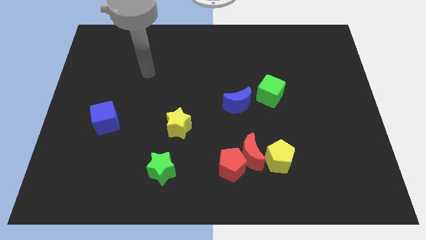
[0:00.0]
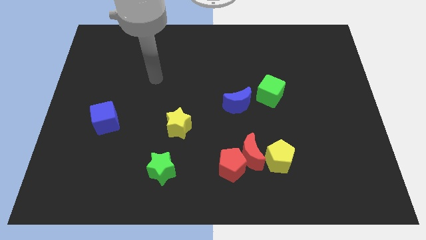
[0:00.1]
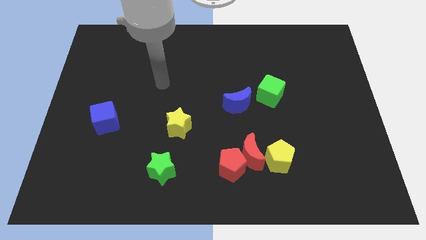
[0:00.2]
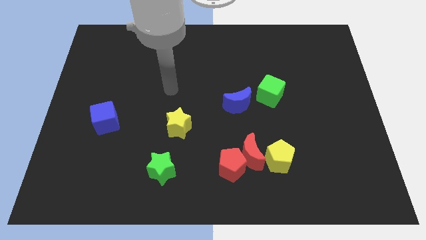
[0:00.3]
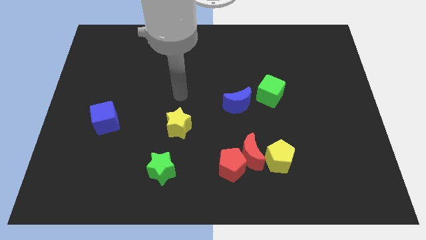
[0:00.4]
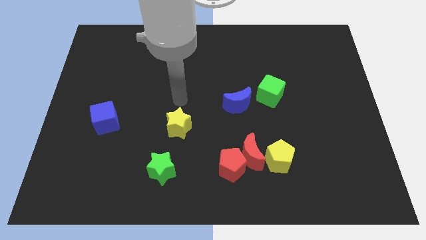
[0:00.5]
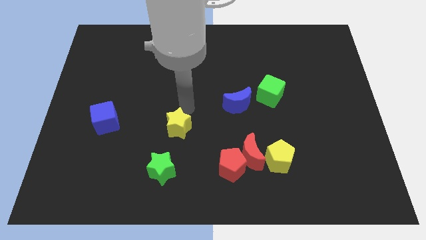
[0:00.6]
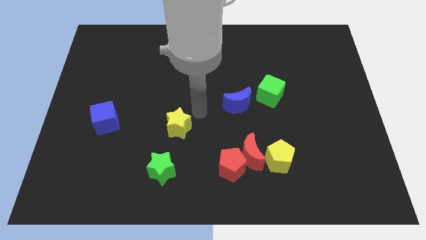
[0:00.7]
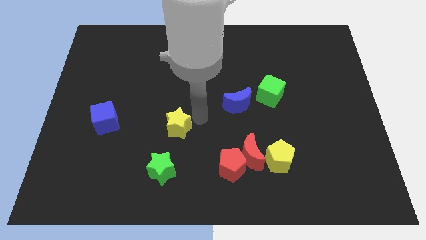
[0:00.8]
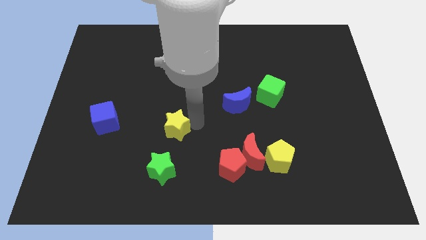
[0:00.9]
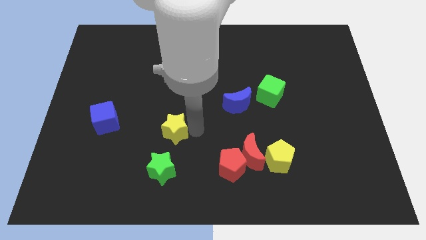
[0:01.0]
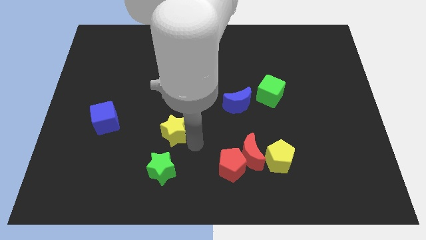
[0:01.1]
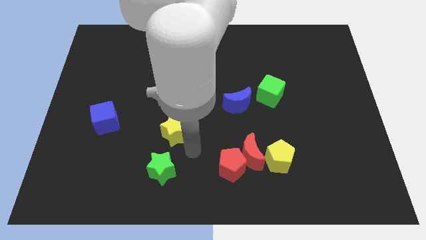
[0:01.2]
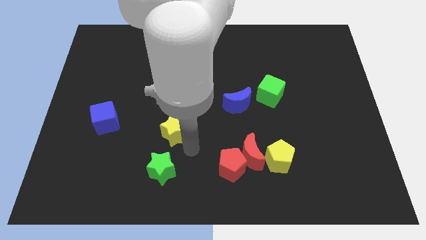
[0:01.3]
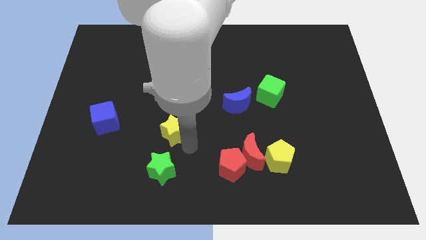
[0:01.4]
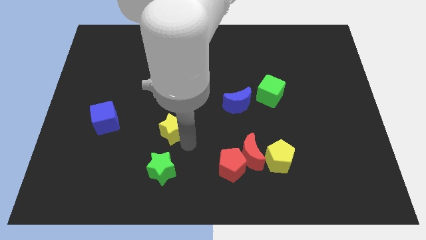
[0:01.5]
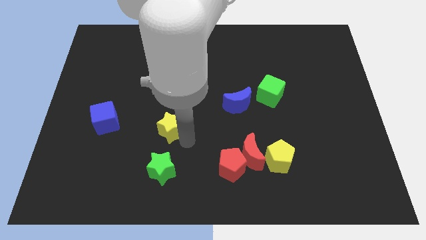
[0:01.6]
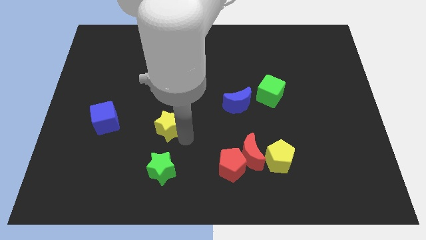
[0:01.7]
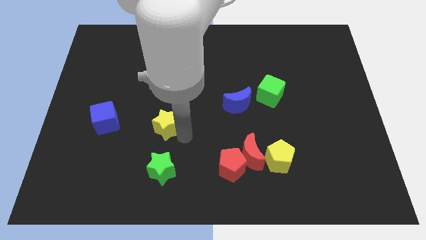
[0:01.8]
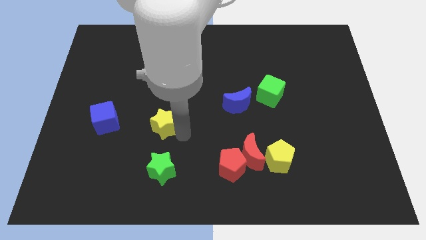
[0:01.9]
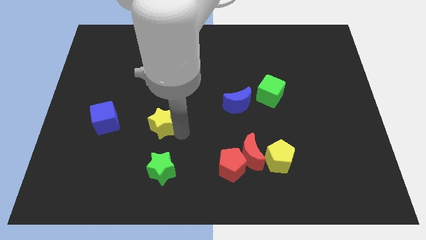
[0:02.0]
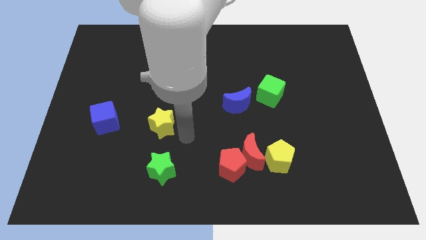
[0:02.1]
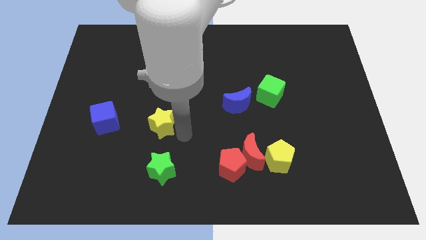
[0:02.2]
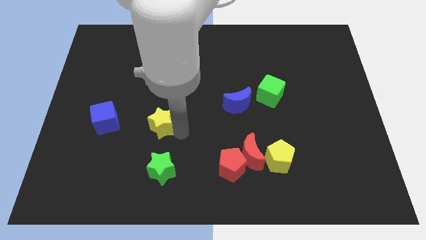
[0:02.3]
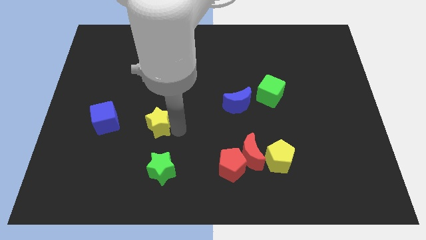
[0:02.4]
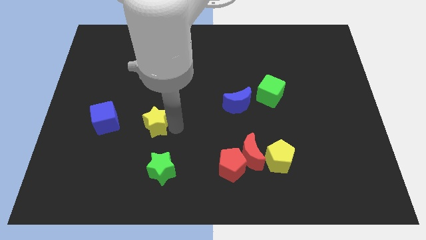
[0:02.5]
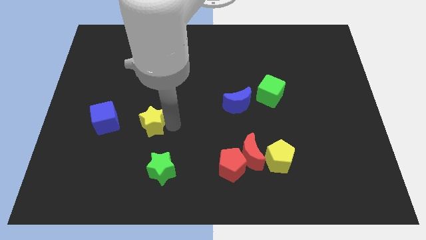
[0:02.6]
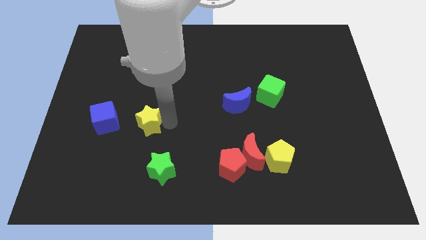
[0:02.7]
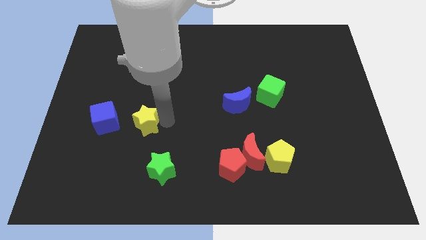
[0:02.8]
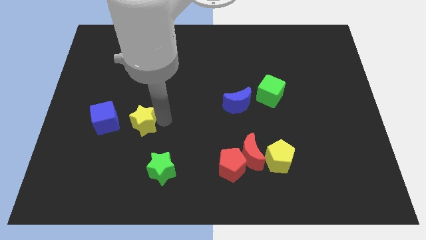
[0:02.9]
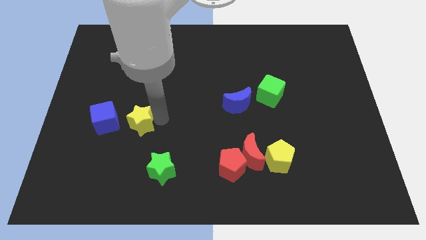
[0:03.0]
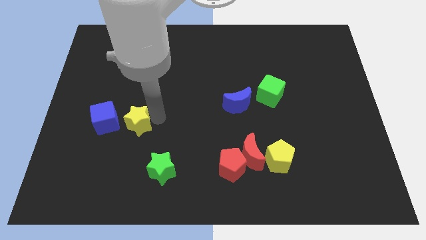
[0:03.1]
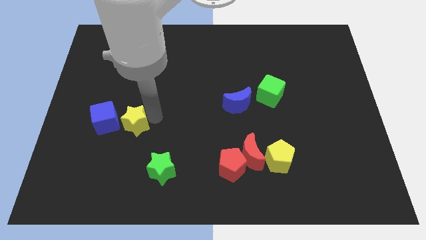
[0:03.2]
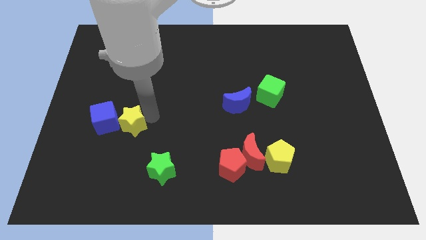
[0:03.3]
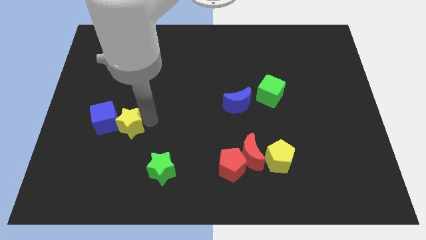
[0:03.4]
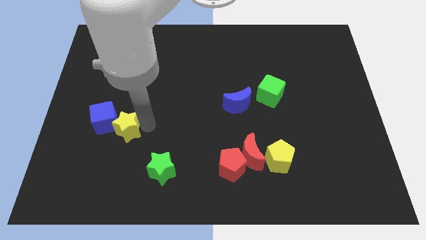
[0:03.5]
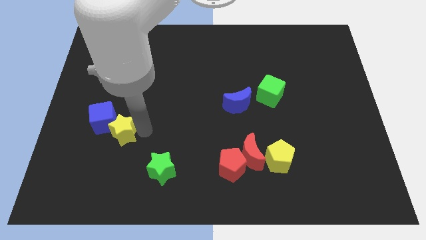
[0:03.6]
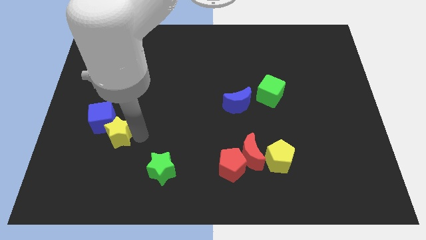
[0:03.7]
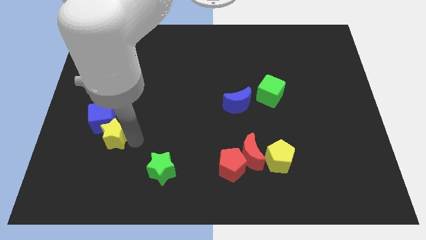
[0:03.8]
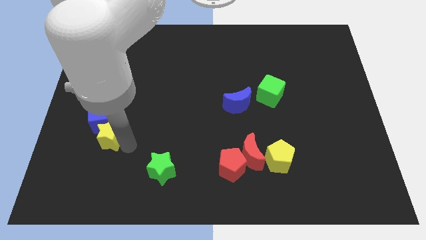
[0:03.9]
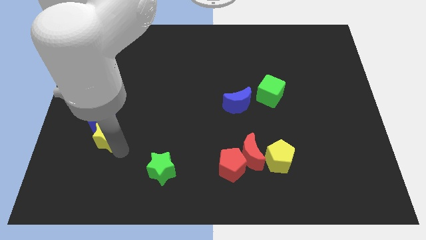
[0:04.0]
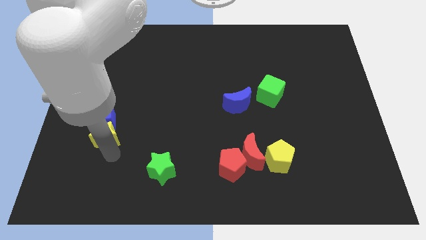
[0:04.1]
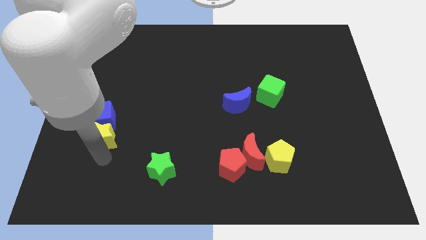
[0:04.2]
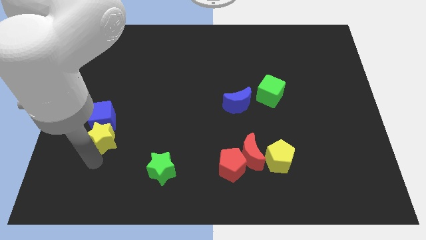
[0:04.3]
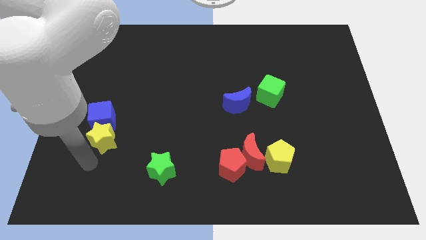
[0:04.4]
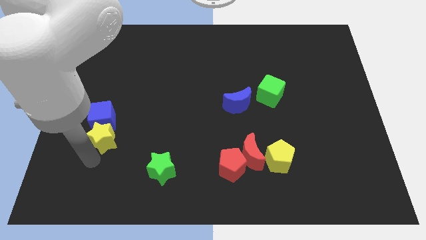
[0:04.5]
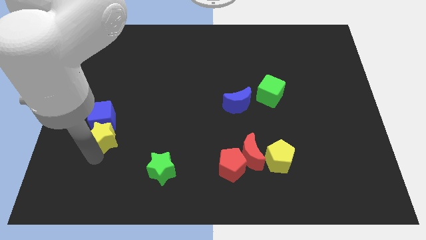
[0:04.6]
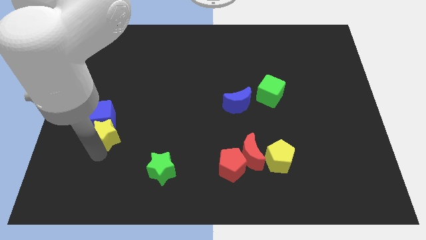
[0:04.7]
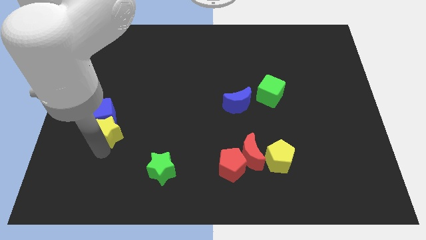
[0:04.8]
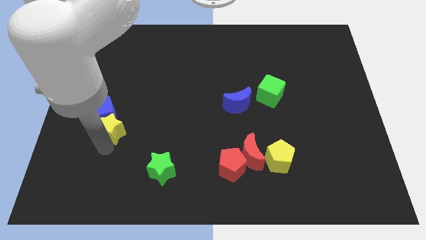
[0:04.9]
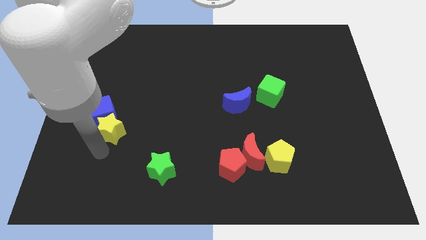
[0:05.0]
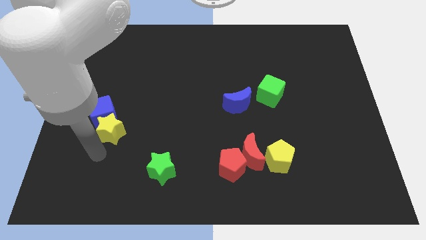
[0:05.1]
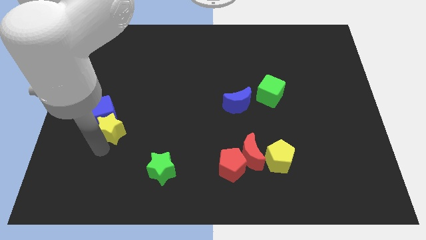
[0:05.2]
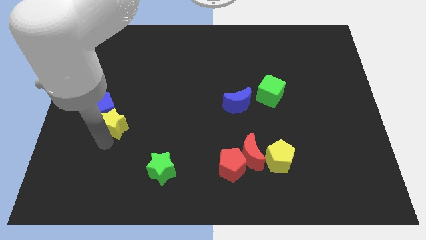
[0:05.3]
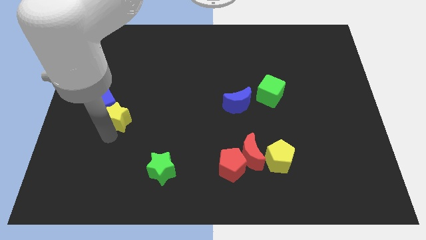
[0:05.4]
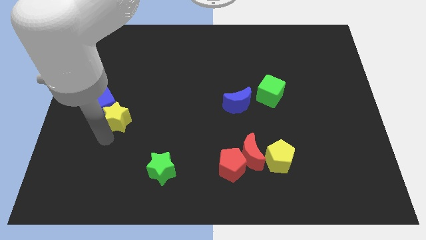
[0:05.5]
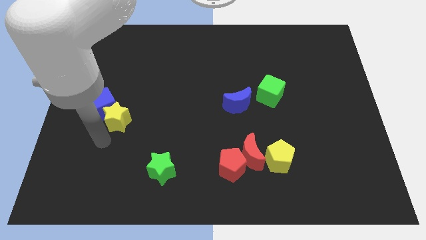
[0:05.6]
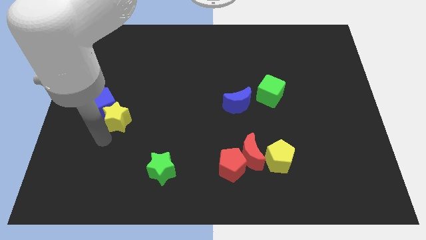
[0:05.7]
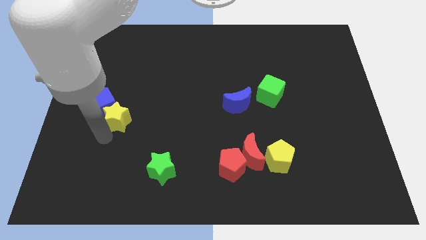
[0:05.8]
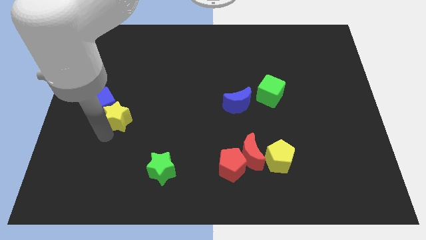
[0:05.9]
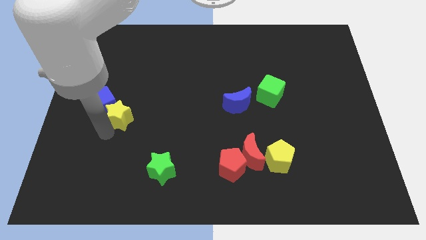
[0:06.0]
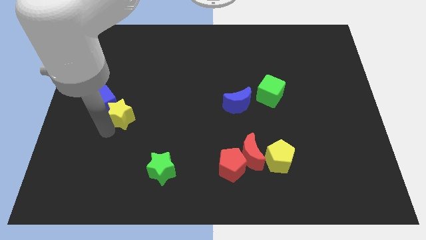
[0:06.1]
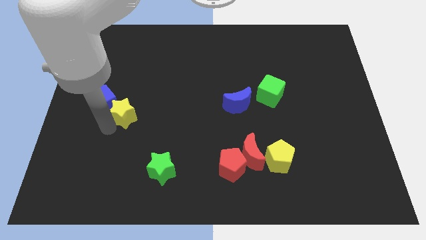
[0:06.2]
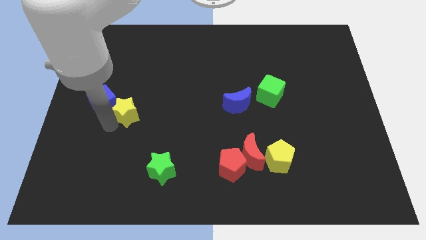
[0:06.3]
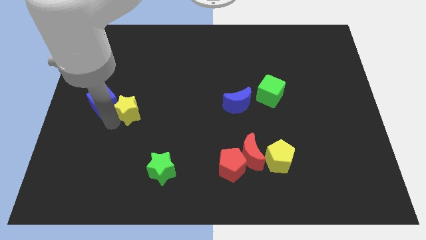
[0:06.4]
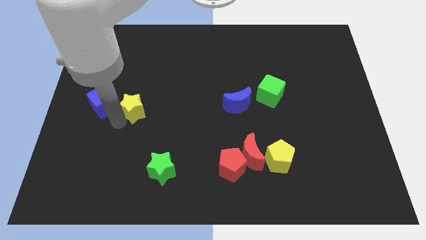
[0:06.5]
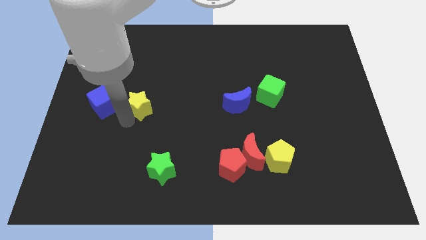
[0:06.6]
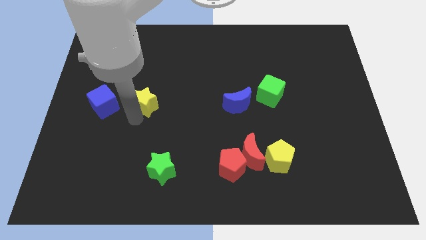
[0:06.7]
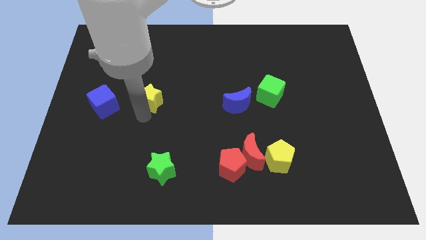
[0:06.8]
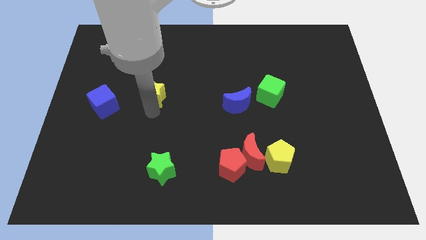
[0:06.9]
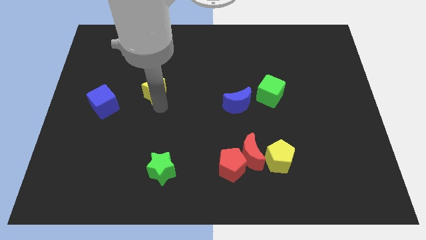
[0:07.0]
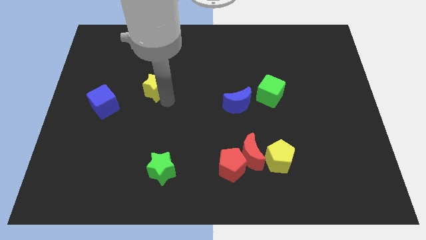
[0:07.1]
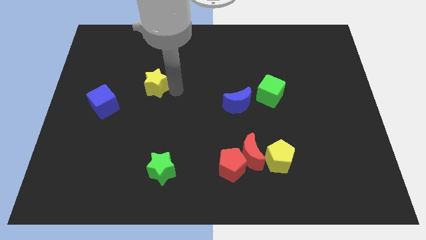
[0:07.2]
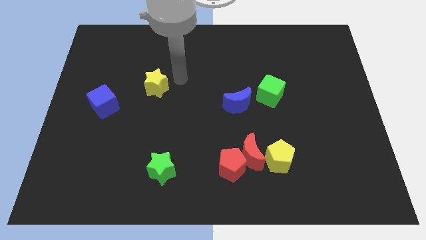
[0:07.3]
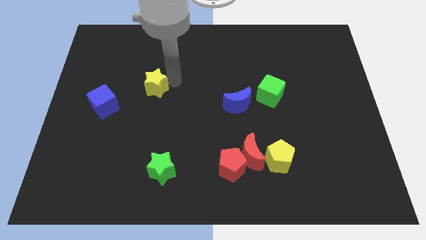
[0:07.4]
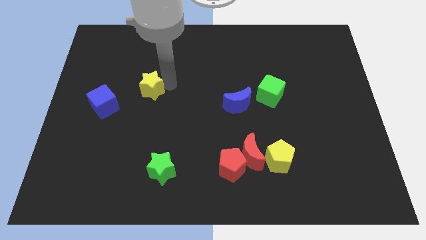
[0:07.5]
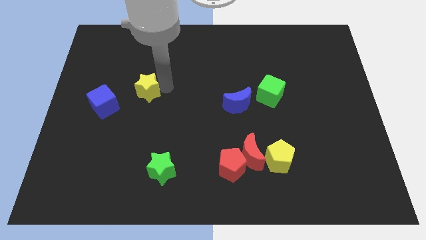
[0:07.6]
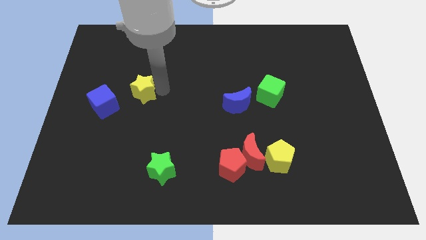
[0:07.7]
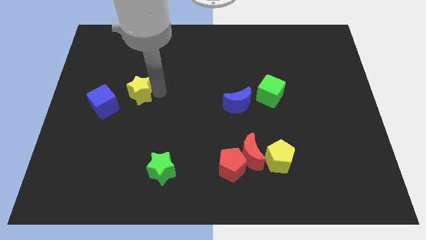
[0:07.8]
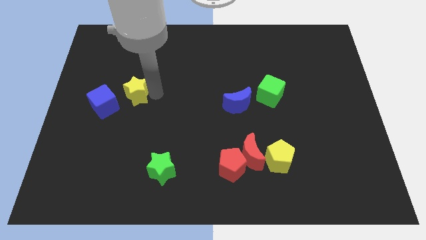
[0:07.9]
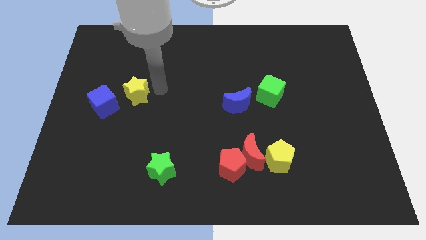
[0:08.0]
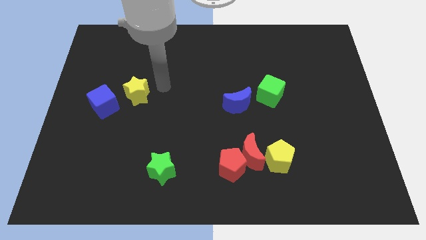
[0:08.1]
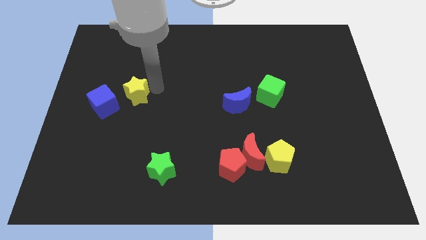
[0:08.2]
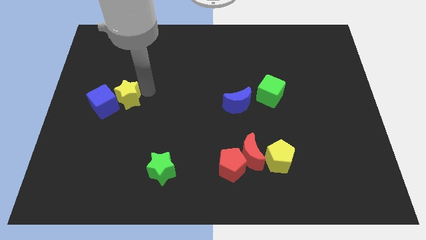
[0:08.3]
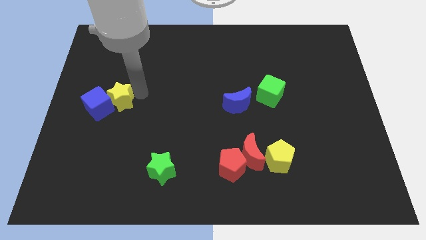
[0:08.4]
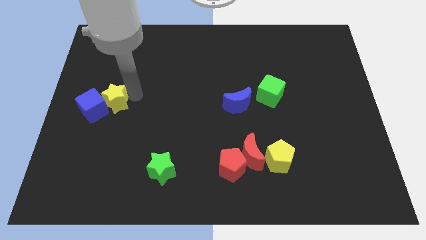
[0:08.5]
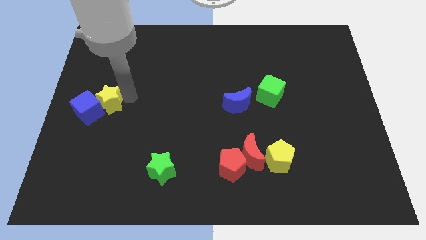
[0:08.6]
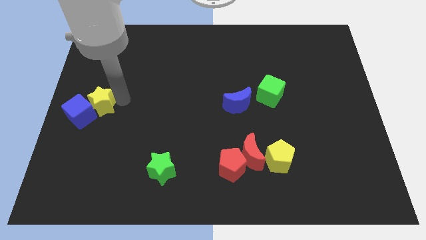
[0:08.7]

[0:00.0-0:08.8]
move the yellow star to the center left
